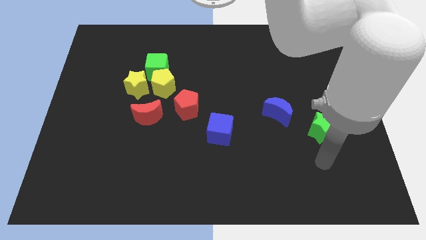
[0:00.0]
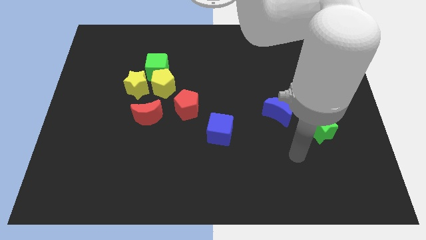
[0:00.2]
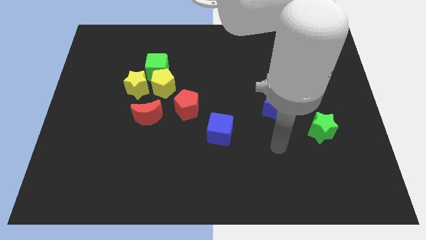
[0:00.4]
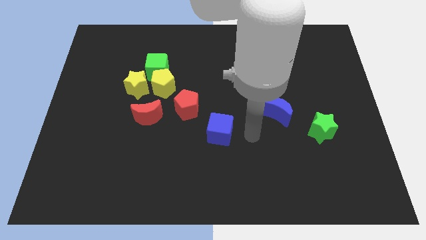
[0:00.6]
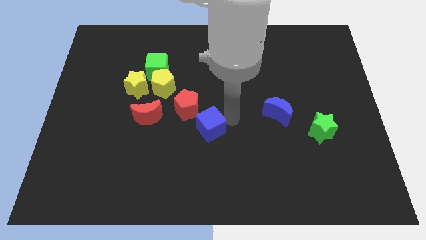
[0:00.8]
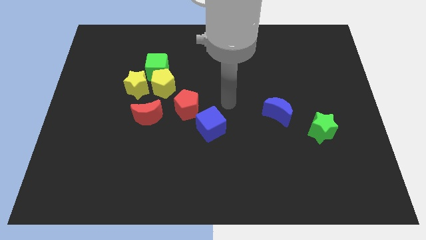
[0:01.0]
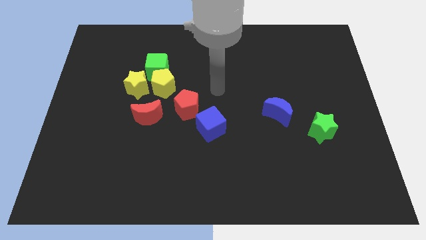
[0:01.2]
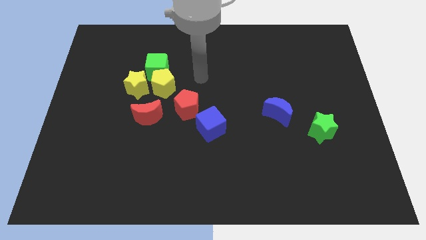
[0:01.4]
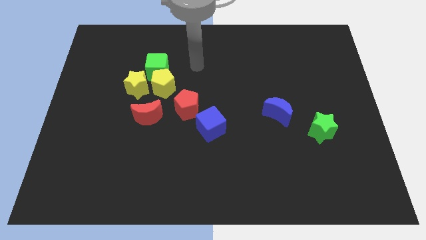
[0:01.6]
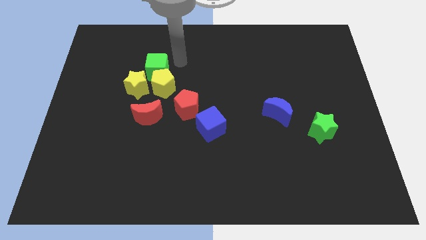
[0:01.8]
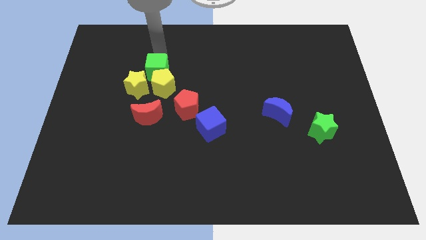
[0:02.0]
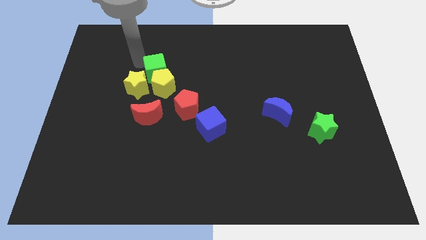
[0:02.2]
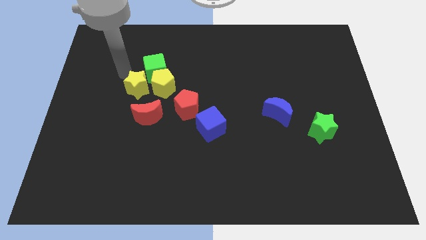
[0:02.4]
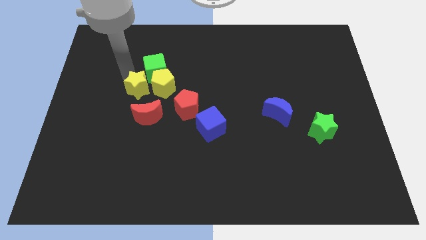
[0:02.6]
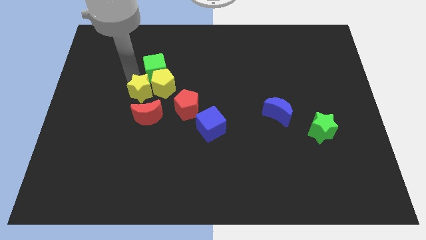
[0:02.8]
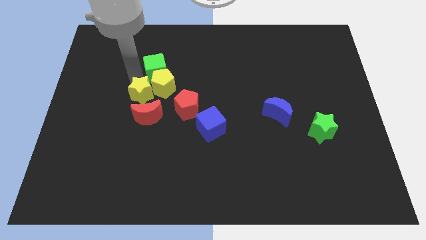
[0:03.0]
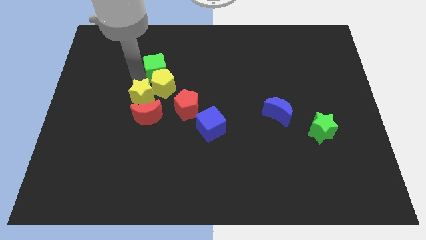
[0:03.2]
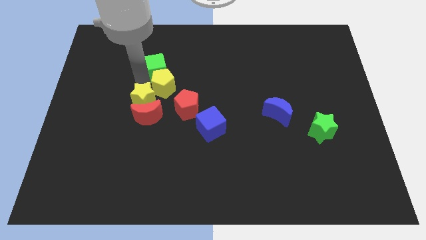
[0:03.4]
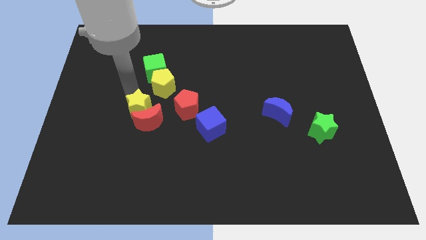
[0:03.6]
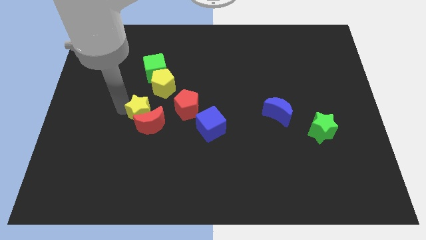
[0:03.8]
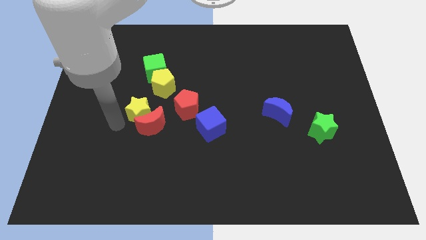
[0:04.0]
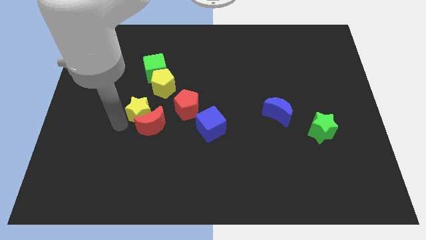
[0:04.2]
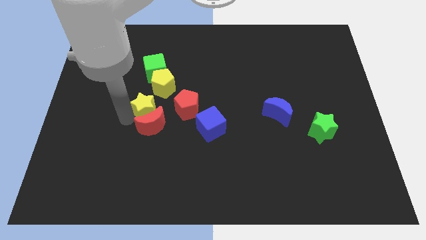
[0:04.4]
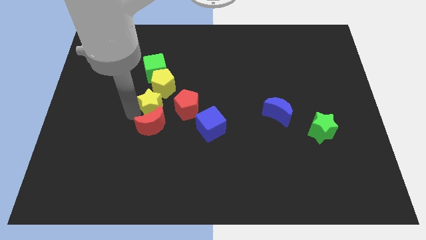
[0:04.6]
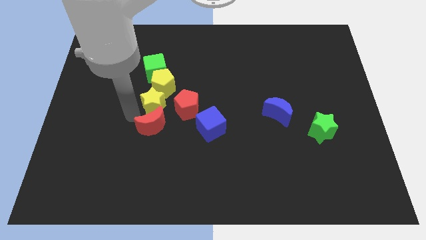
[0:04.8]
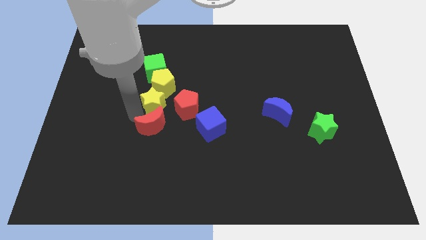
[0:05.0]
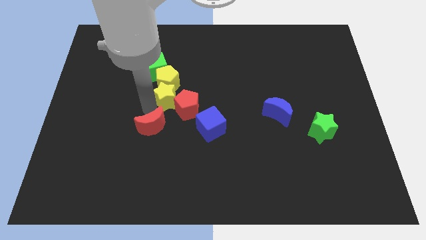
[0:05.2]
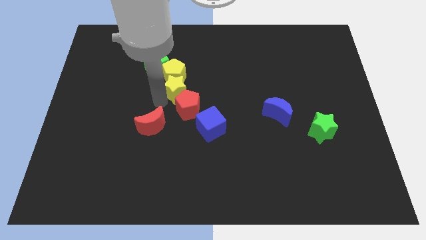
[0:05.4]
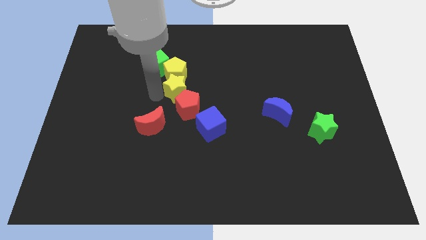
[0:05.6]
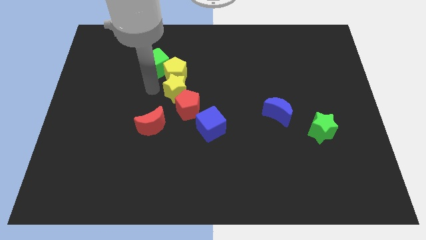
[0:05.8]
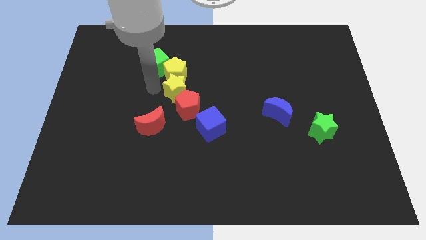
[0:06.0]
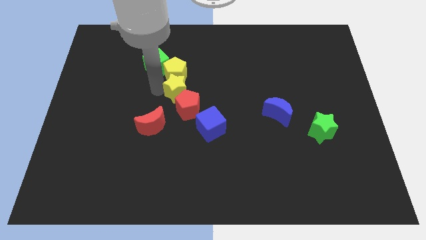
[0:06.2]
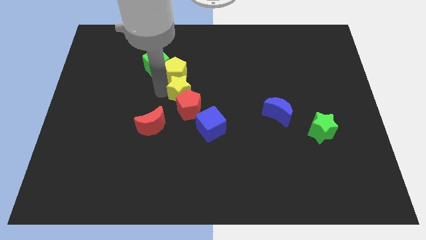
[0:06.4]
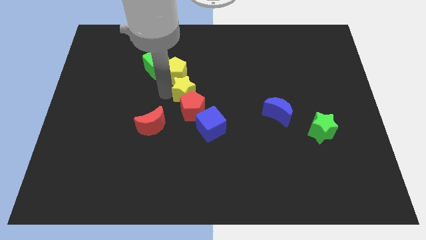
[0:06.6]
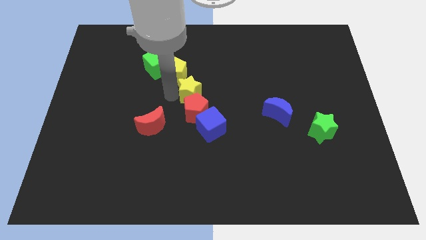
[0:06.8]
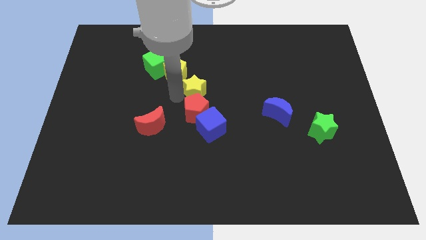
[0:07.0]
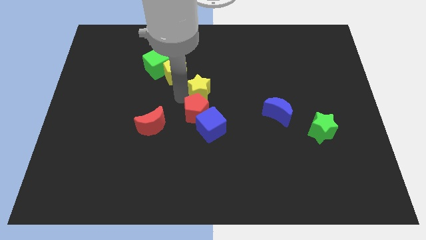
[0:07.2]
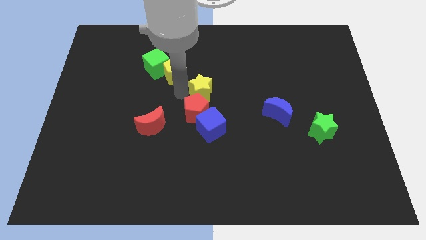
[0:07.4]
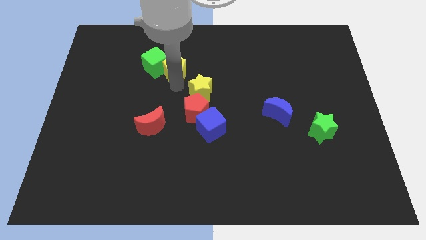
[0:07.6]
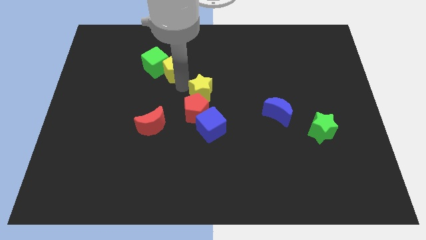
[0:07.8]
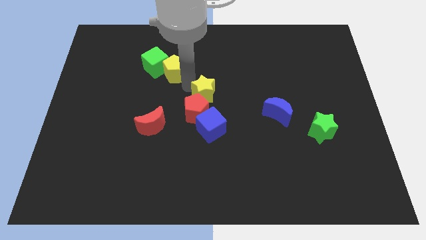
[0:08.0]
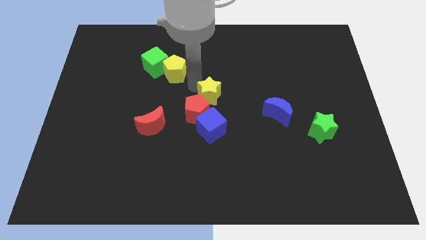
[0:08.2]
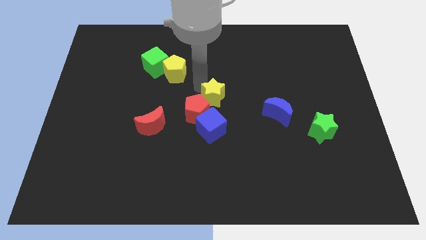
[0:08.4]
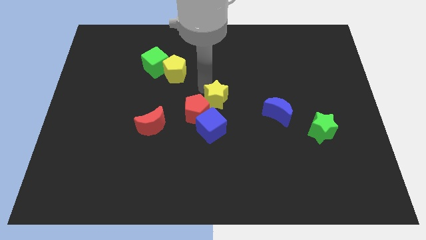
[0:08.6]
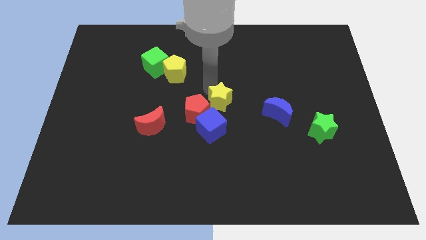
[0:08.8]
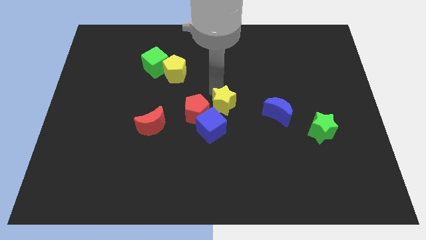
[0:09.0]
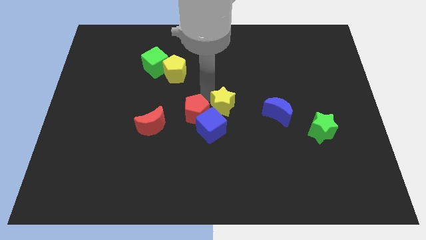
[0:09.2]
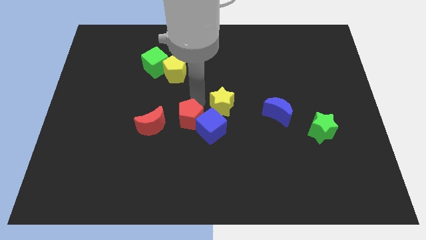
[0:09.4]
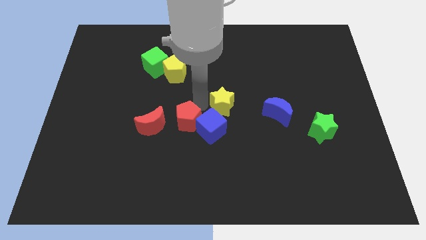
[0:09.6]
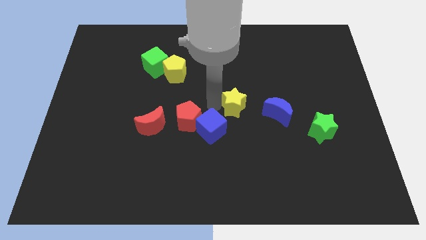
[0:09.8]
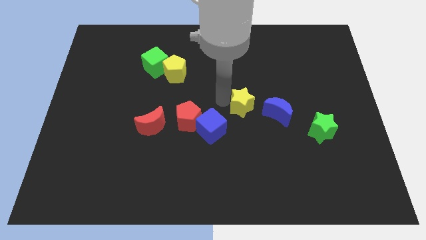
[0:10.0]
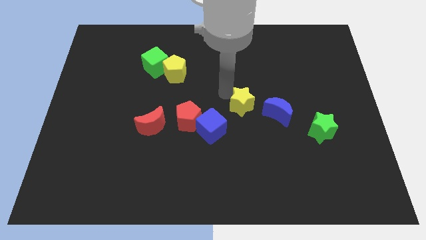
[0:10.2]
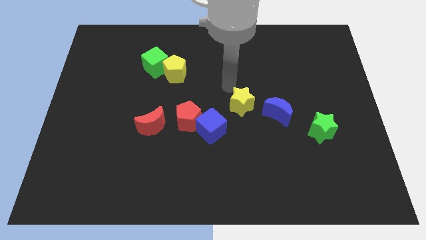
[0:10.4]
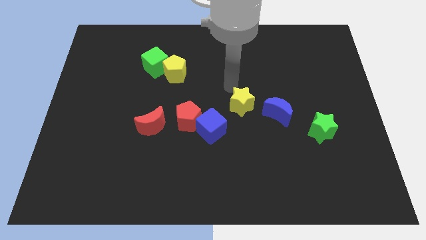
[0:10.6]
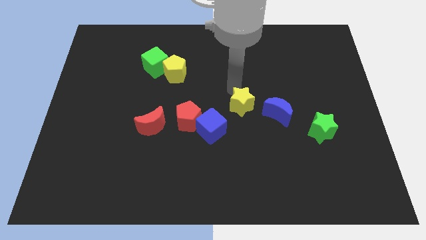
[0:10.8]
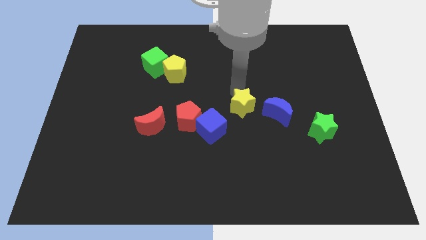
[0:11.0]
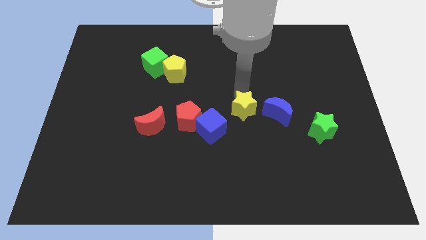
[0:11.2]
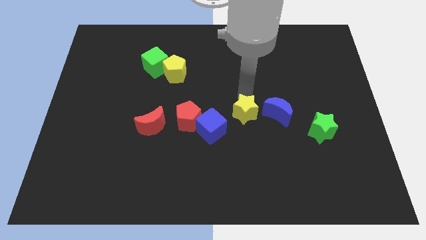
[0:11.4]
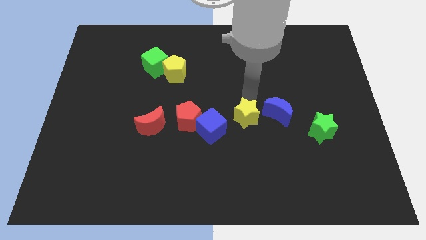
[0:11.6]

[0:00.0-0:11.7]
slide the yellow star to the bottom left side of the blue moon

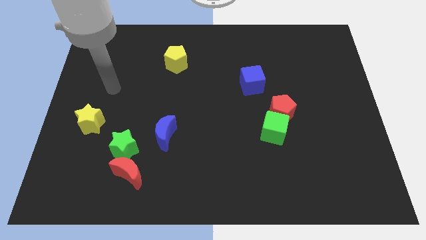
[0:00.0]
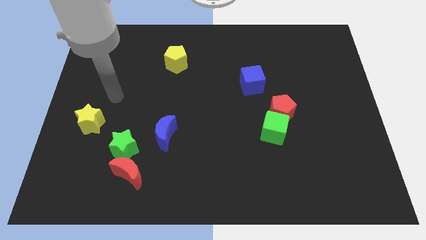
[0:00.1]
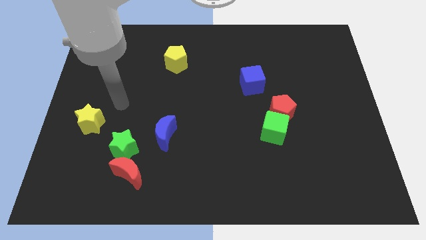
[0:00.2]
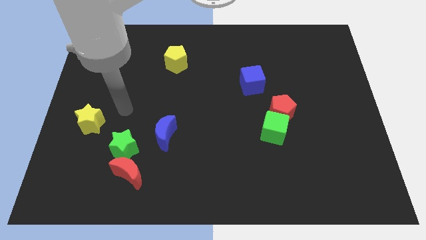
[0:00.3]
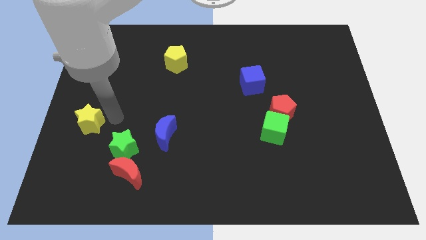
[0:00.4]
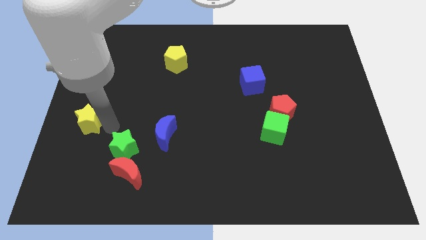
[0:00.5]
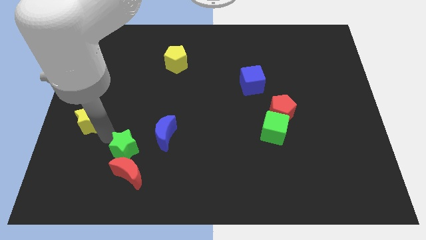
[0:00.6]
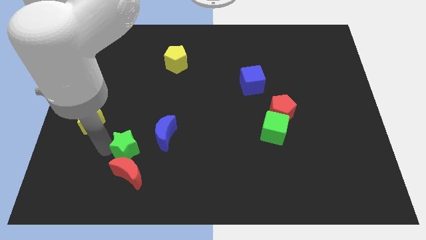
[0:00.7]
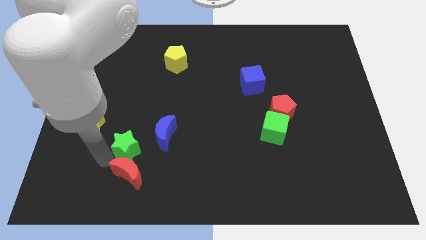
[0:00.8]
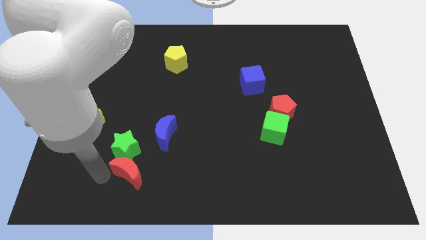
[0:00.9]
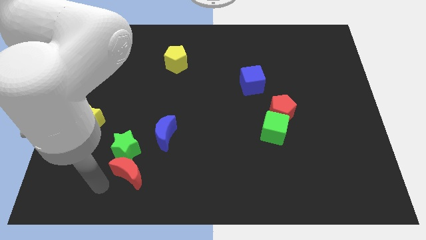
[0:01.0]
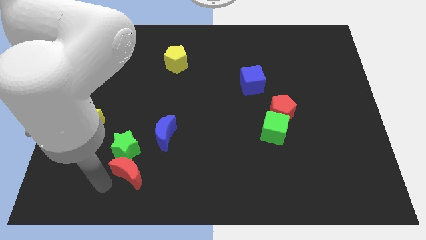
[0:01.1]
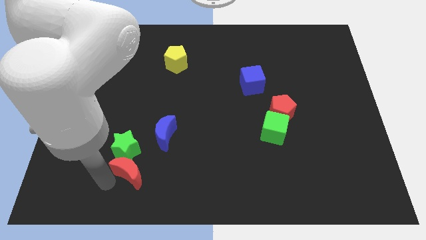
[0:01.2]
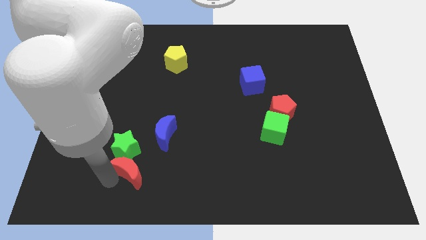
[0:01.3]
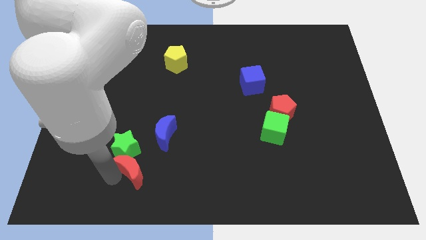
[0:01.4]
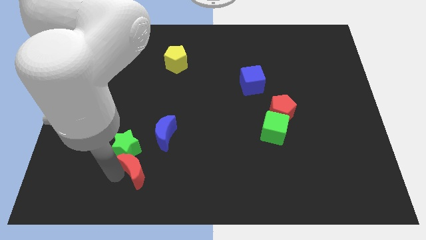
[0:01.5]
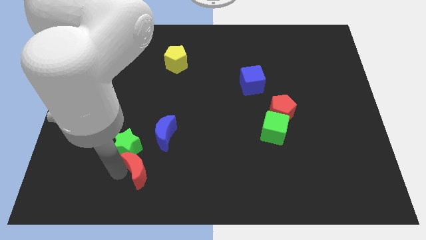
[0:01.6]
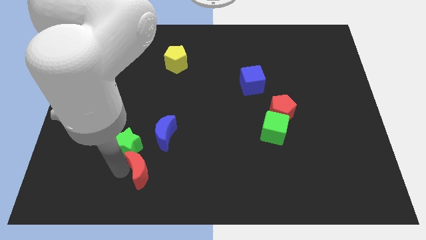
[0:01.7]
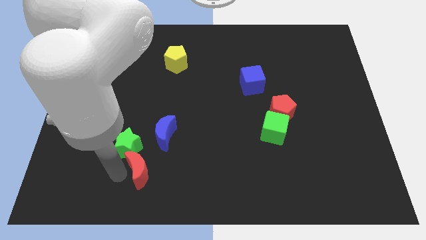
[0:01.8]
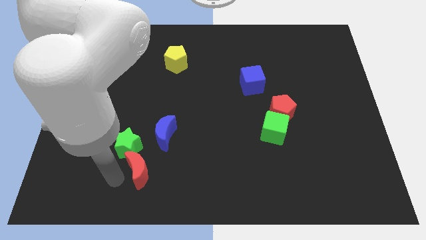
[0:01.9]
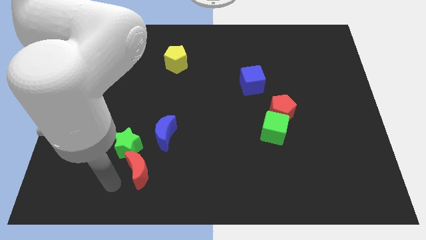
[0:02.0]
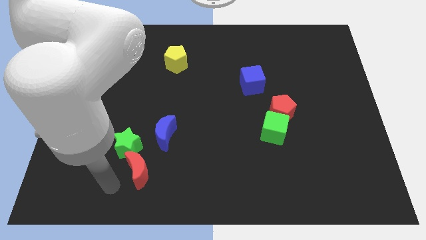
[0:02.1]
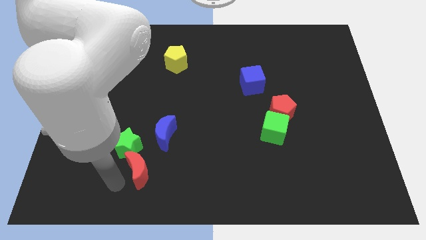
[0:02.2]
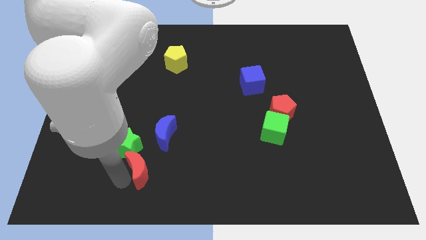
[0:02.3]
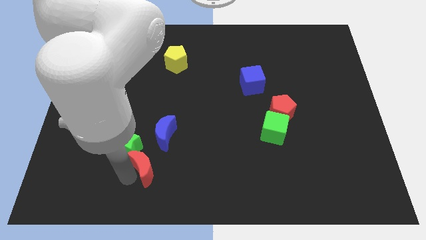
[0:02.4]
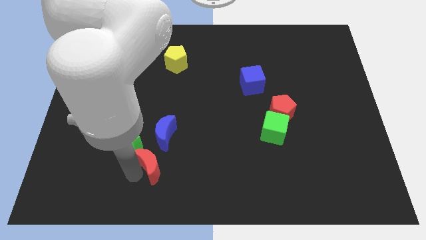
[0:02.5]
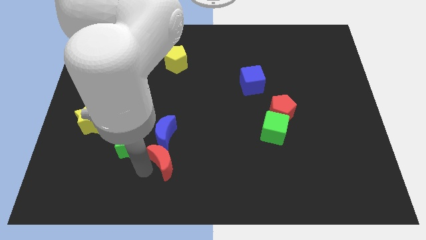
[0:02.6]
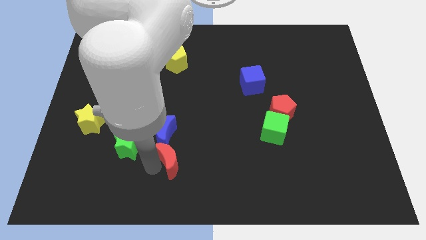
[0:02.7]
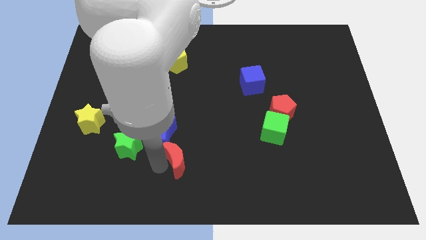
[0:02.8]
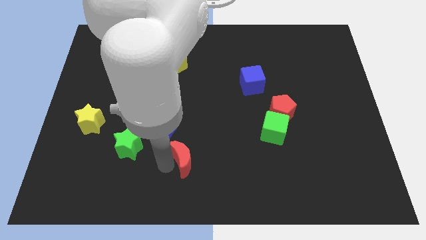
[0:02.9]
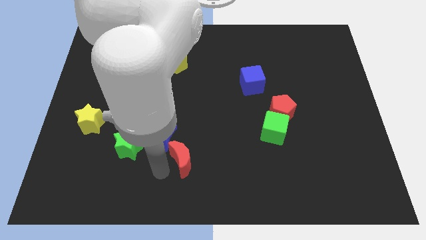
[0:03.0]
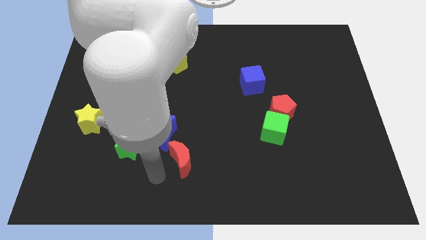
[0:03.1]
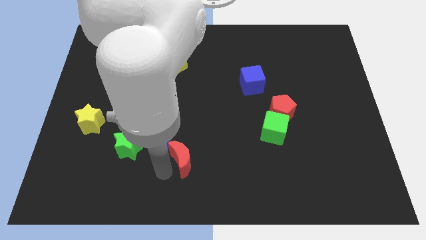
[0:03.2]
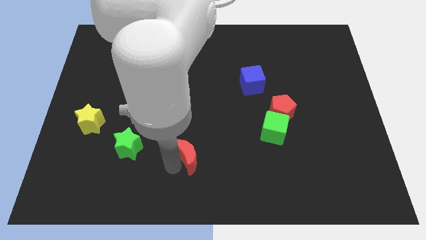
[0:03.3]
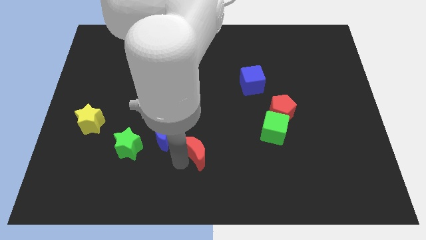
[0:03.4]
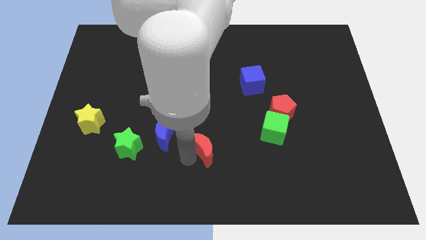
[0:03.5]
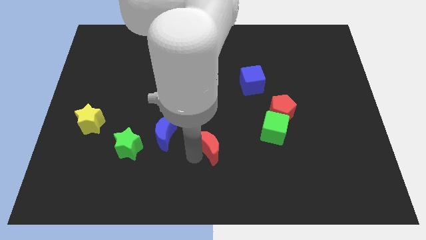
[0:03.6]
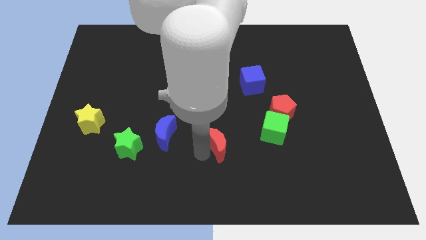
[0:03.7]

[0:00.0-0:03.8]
put the red moon just left of the green cube
